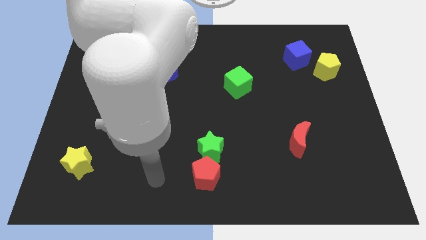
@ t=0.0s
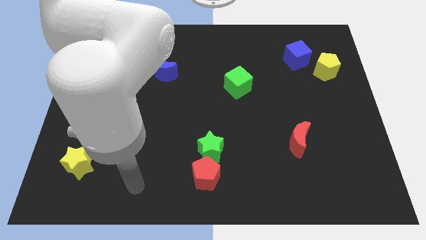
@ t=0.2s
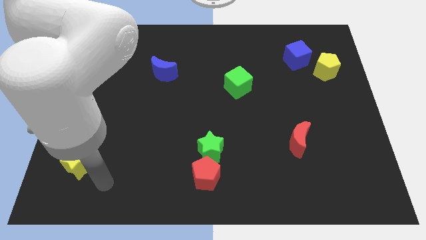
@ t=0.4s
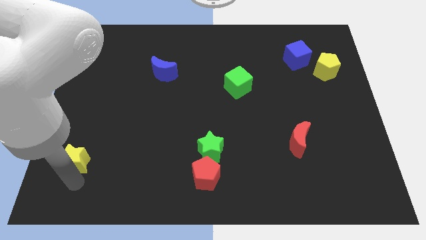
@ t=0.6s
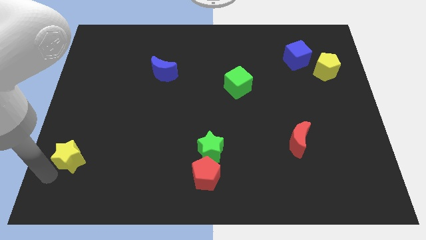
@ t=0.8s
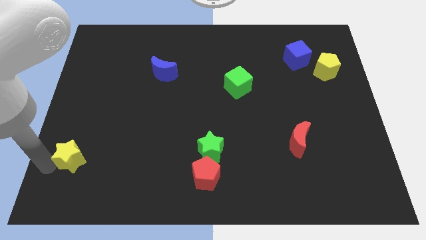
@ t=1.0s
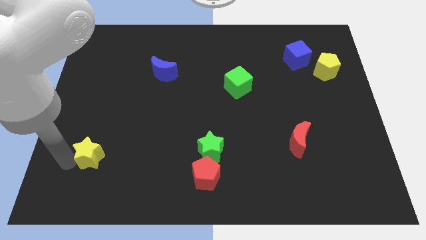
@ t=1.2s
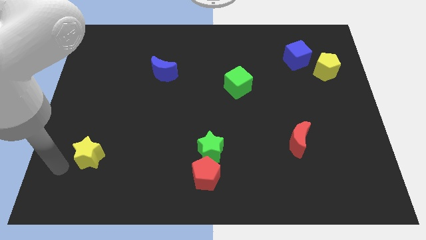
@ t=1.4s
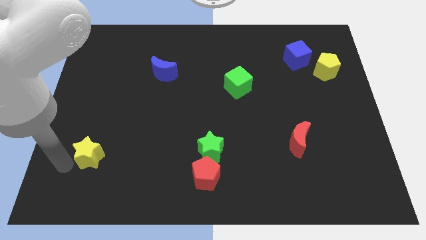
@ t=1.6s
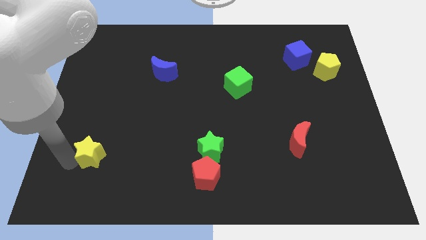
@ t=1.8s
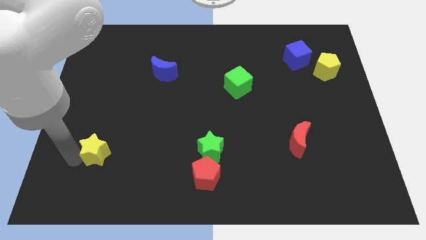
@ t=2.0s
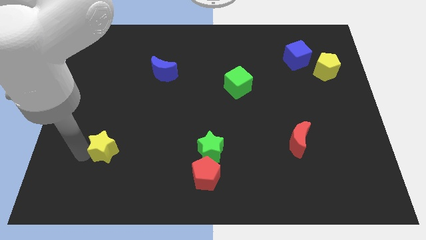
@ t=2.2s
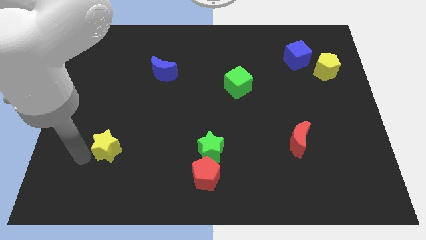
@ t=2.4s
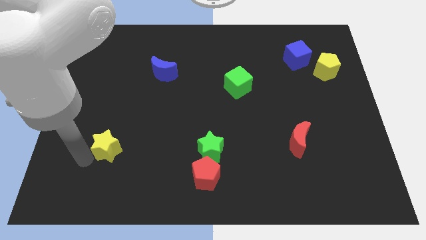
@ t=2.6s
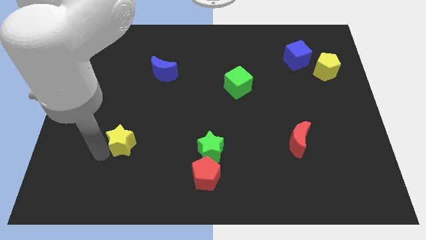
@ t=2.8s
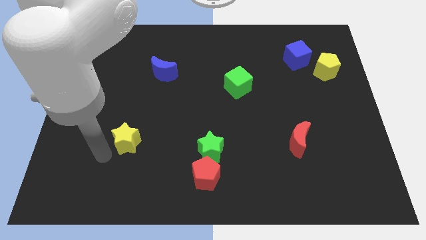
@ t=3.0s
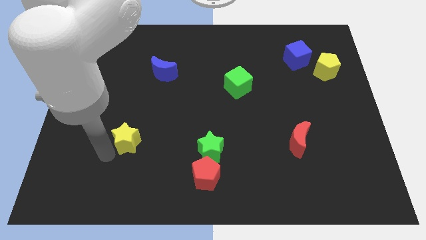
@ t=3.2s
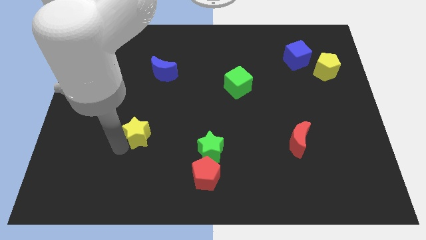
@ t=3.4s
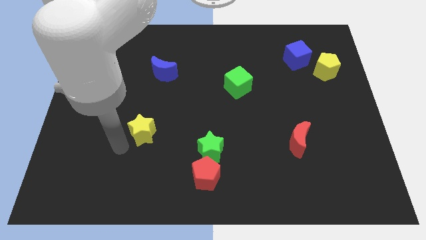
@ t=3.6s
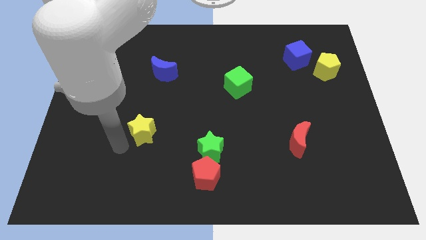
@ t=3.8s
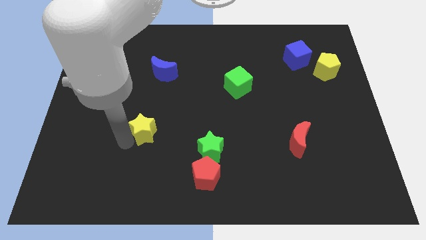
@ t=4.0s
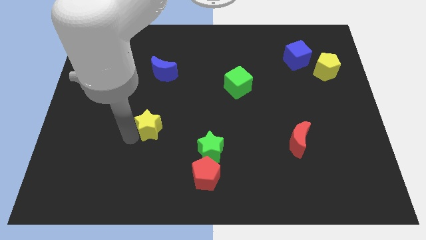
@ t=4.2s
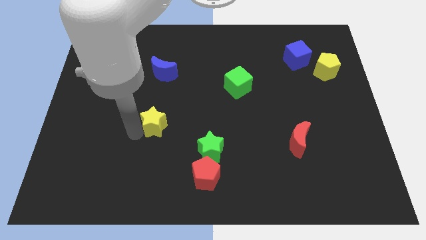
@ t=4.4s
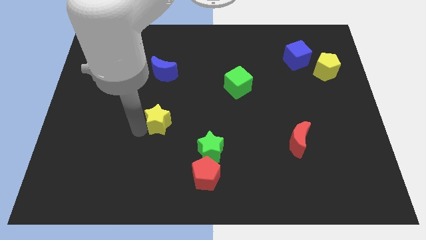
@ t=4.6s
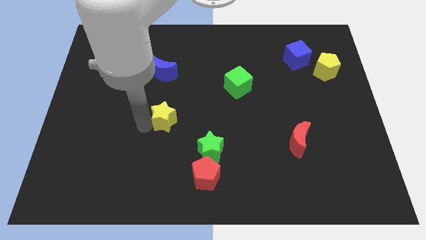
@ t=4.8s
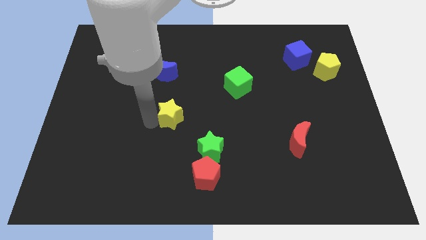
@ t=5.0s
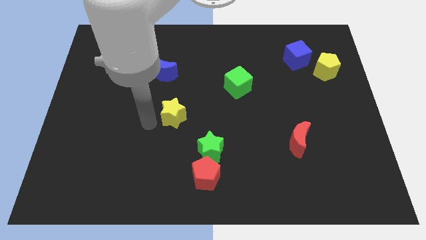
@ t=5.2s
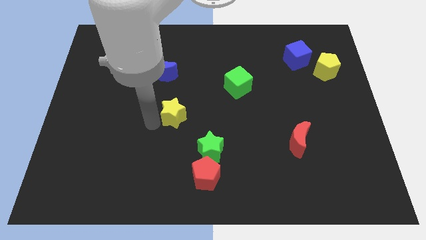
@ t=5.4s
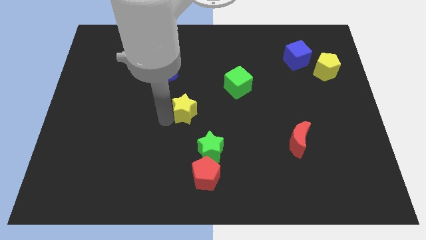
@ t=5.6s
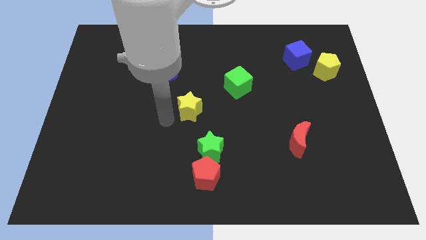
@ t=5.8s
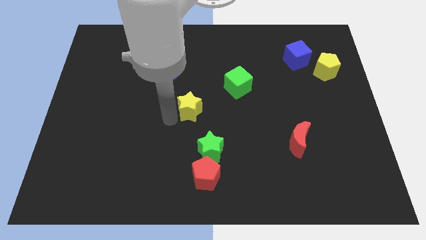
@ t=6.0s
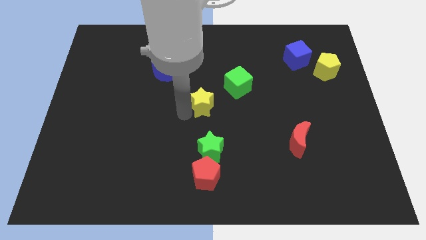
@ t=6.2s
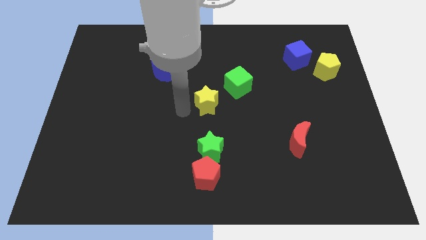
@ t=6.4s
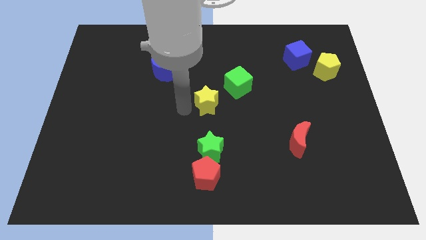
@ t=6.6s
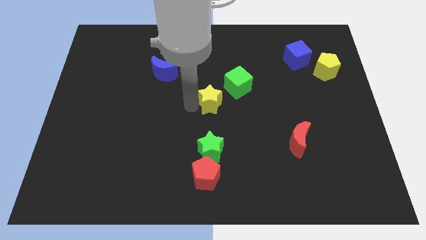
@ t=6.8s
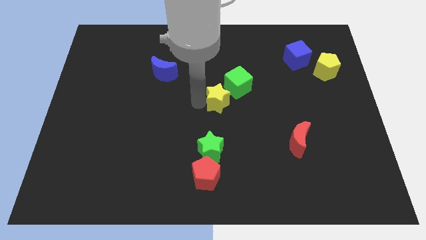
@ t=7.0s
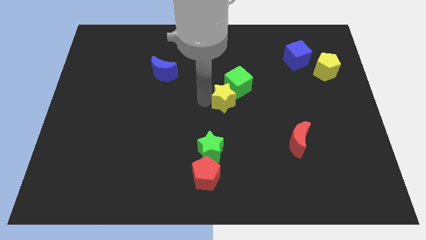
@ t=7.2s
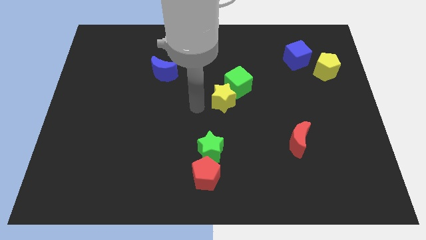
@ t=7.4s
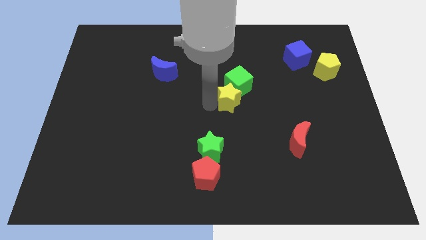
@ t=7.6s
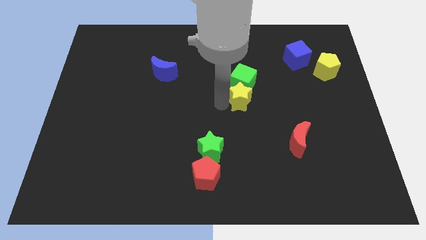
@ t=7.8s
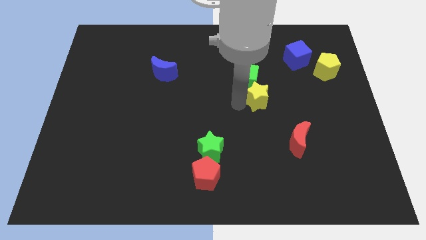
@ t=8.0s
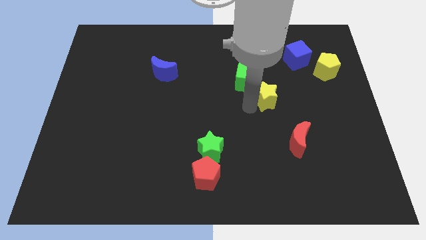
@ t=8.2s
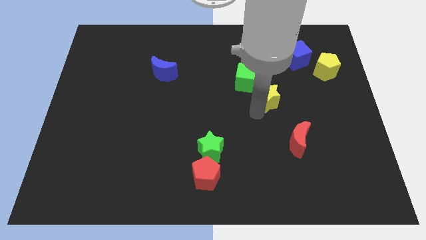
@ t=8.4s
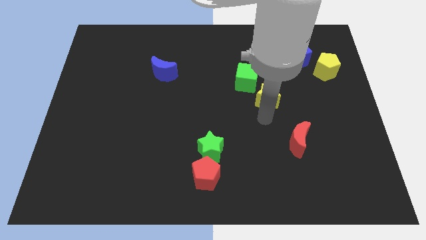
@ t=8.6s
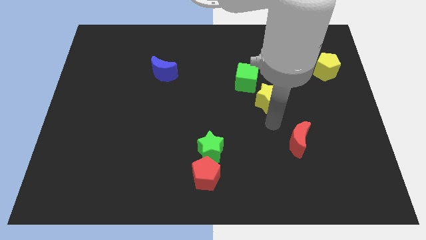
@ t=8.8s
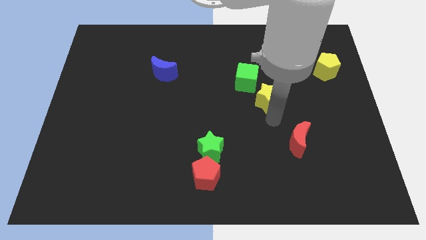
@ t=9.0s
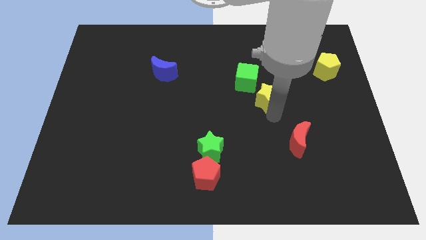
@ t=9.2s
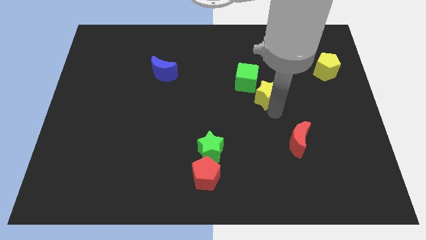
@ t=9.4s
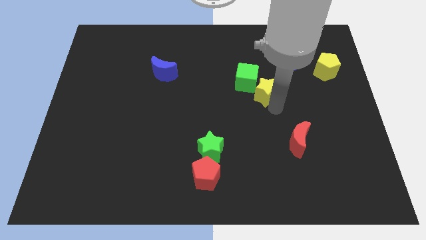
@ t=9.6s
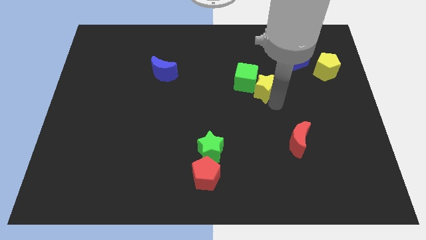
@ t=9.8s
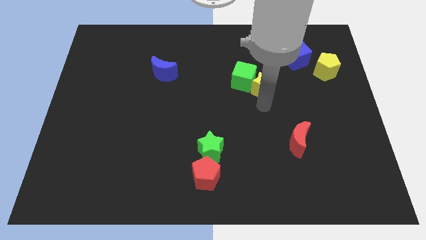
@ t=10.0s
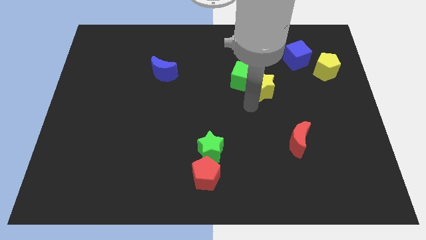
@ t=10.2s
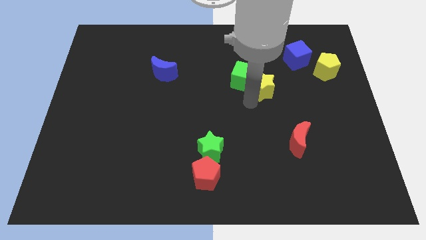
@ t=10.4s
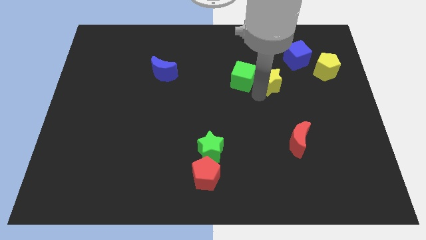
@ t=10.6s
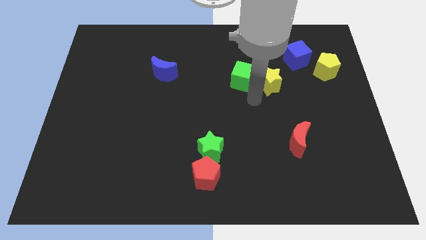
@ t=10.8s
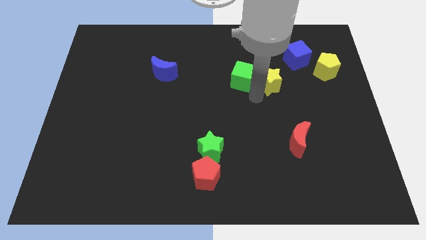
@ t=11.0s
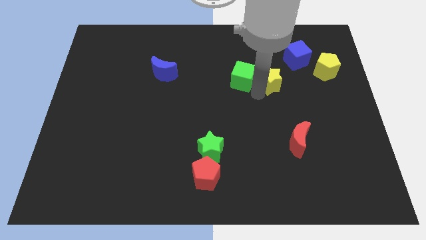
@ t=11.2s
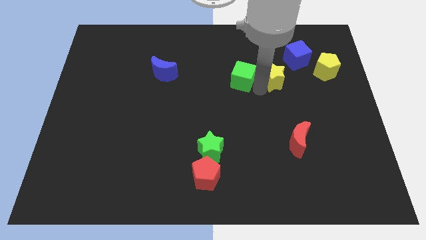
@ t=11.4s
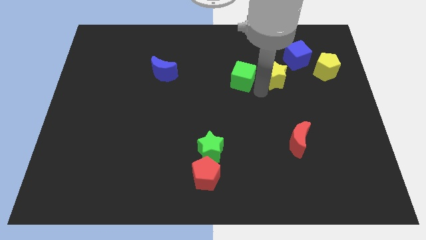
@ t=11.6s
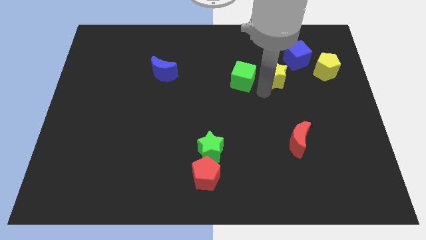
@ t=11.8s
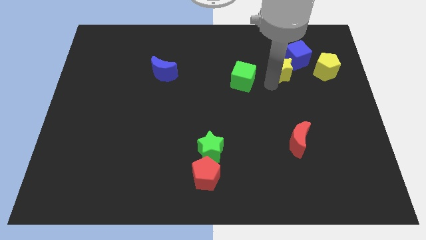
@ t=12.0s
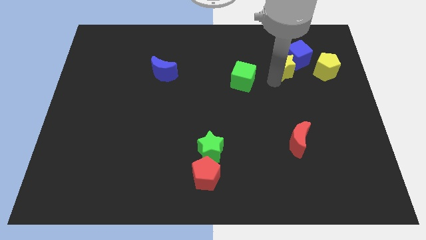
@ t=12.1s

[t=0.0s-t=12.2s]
slide the yellow star towards the blue cube

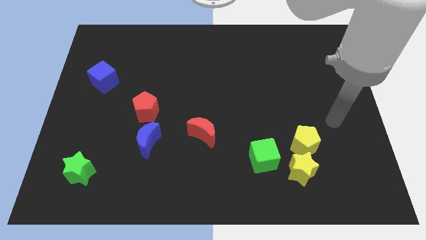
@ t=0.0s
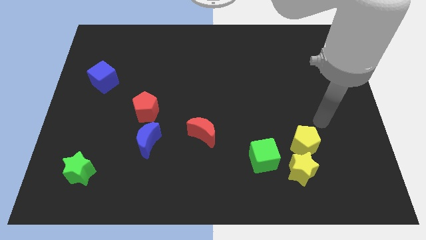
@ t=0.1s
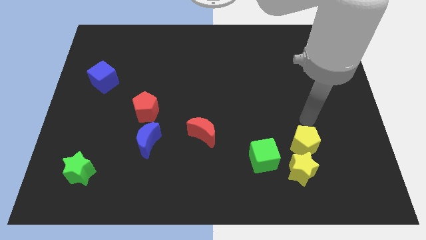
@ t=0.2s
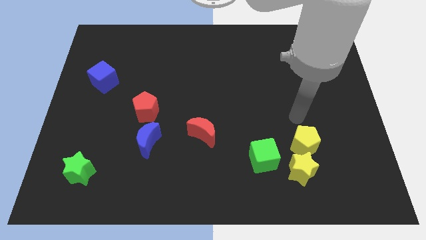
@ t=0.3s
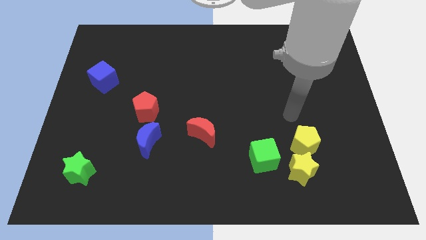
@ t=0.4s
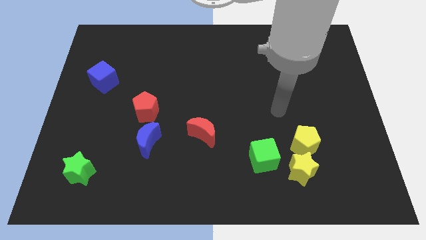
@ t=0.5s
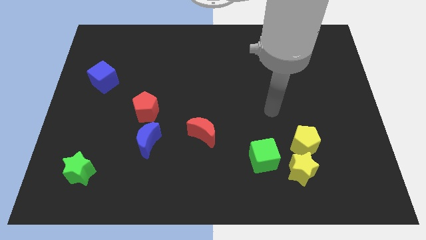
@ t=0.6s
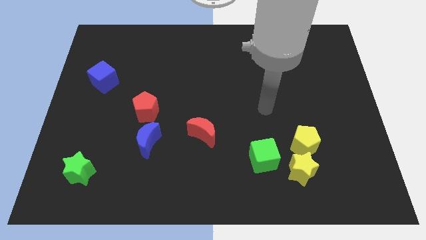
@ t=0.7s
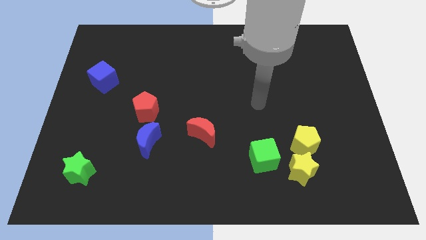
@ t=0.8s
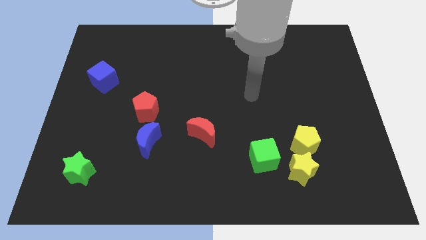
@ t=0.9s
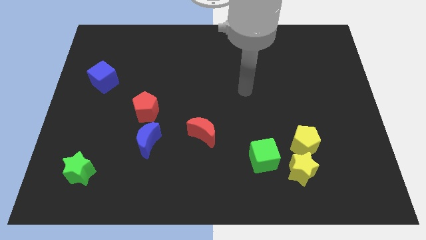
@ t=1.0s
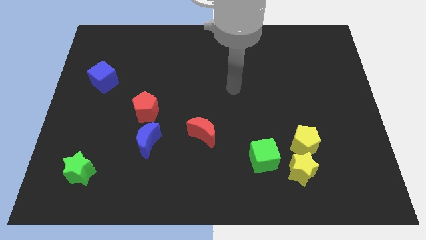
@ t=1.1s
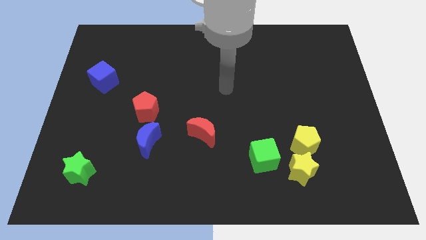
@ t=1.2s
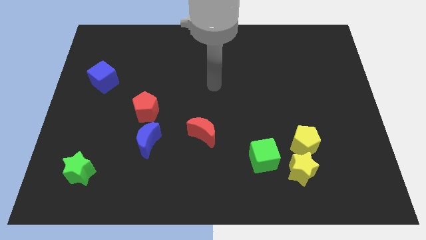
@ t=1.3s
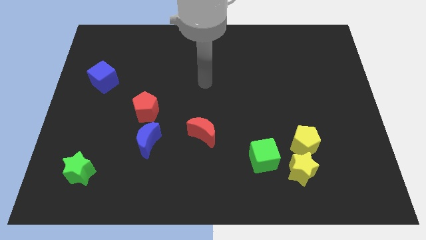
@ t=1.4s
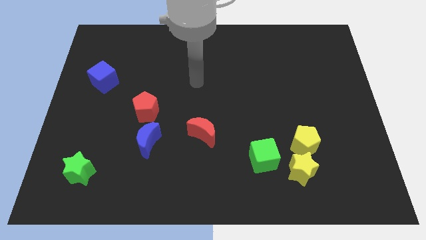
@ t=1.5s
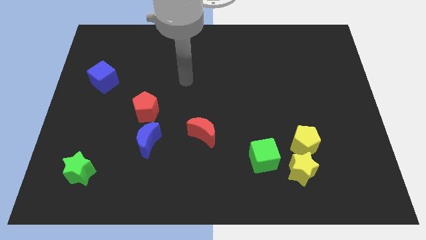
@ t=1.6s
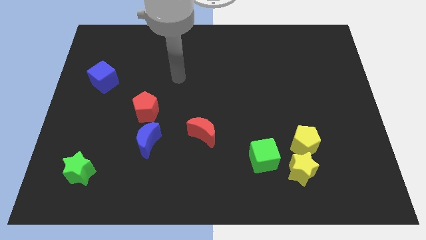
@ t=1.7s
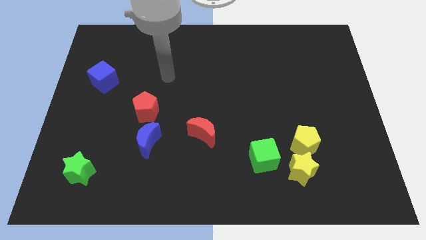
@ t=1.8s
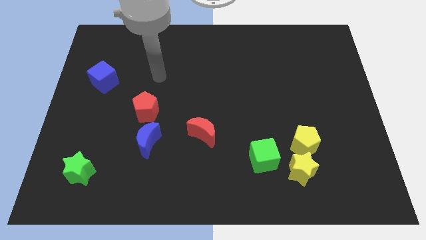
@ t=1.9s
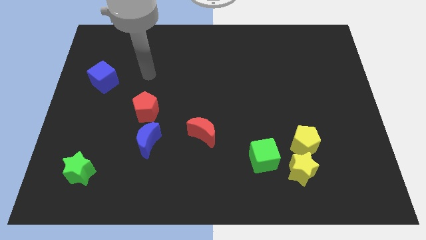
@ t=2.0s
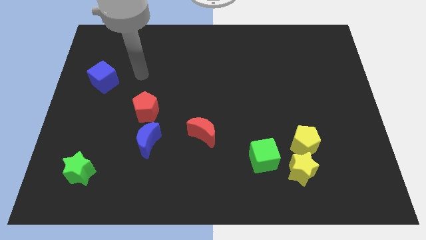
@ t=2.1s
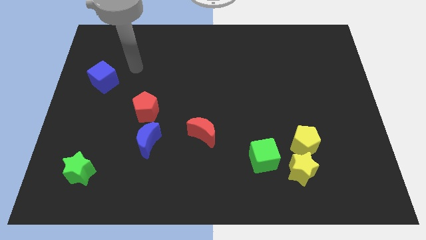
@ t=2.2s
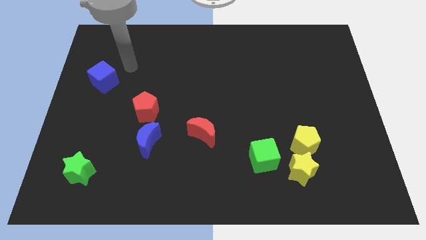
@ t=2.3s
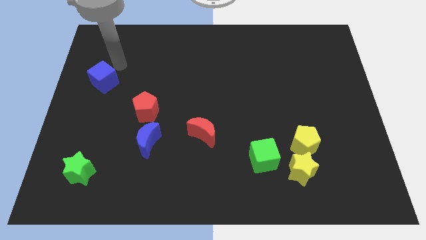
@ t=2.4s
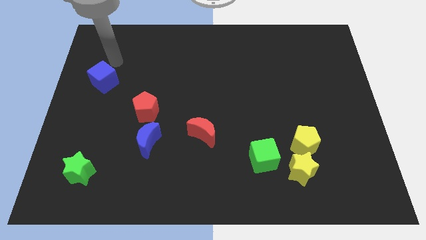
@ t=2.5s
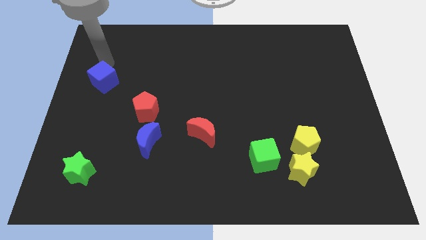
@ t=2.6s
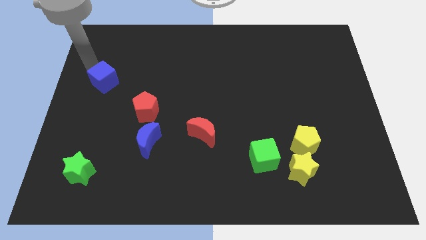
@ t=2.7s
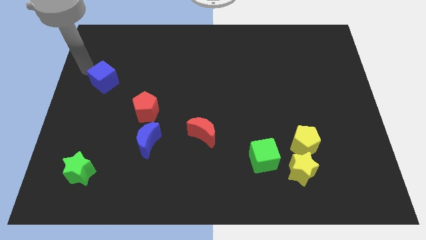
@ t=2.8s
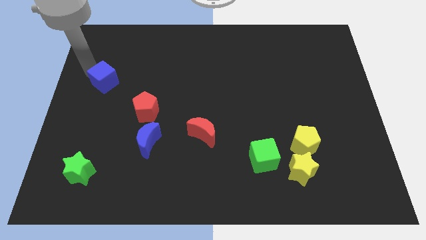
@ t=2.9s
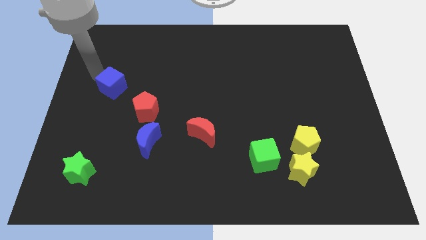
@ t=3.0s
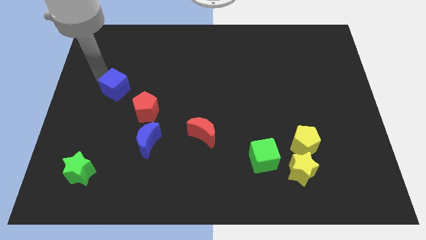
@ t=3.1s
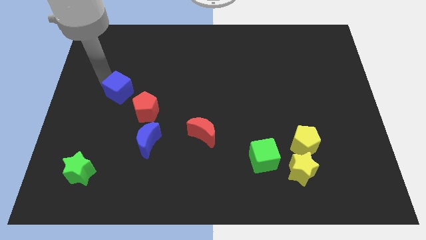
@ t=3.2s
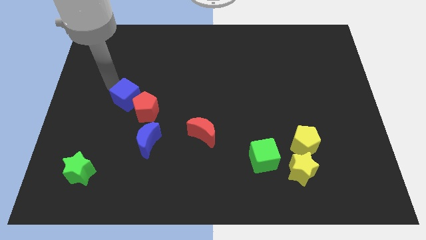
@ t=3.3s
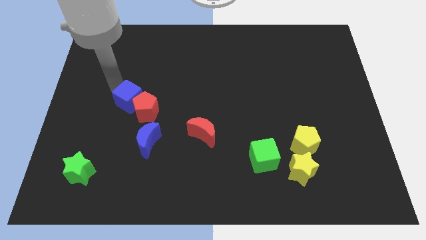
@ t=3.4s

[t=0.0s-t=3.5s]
slide the blue cube close to the red pentagon
